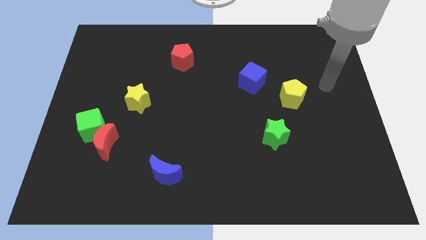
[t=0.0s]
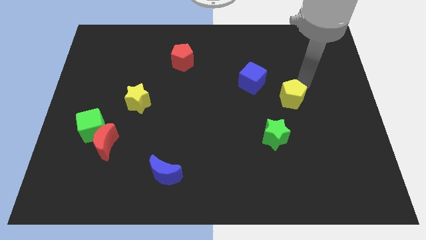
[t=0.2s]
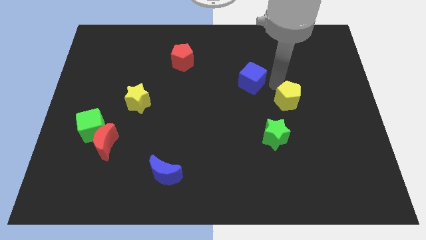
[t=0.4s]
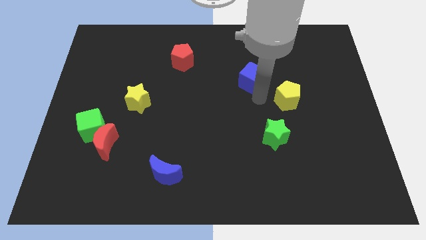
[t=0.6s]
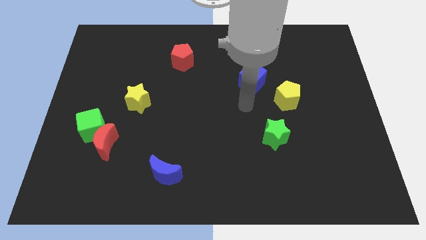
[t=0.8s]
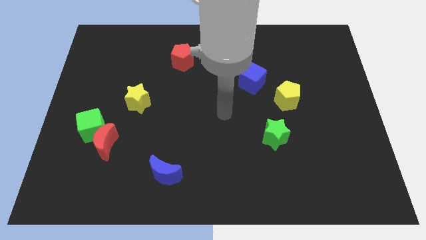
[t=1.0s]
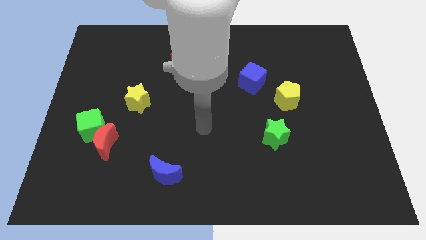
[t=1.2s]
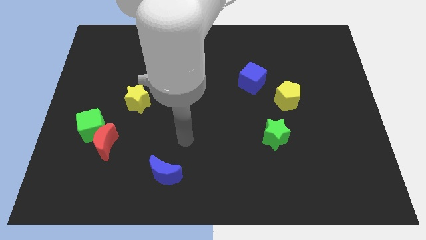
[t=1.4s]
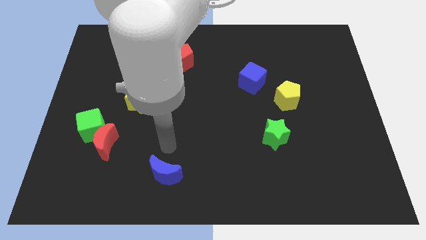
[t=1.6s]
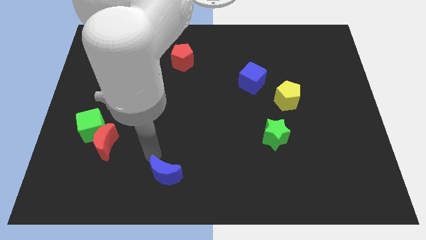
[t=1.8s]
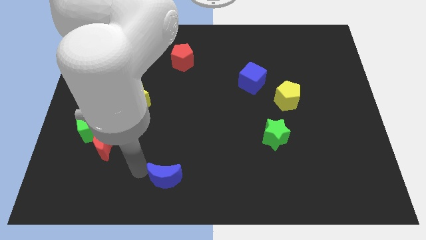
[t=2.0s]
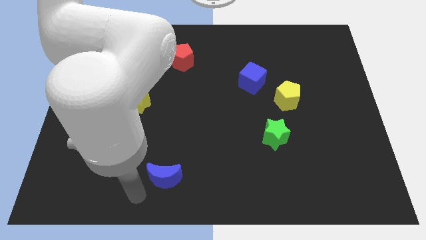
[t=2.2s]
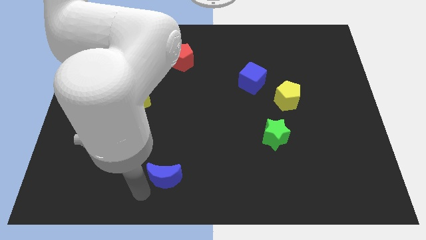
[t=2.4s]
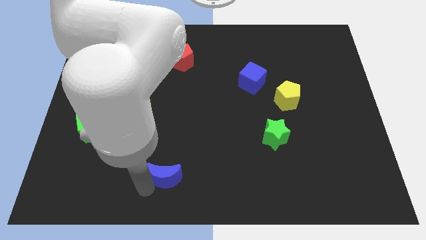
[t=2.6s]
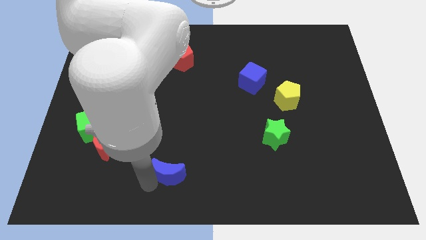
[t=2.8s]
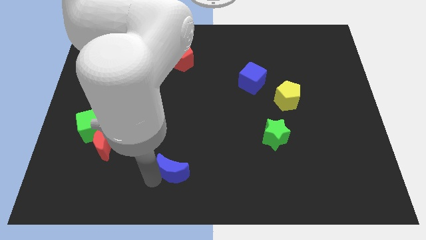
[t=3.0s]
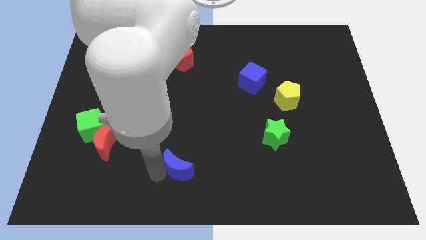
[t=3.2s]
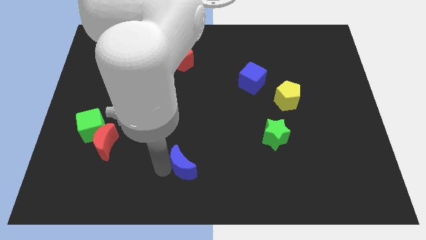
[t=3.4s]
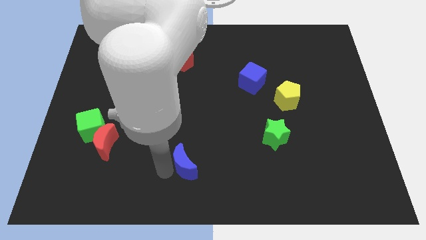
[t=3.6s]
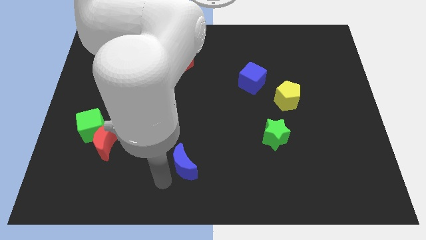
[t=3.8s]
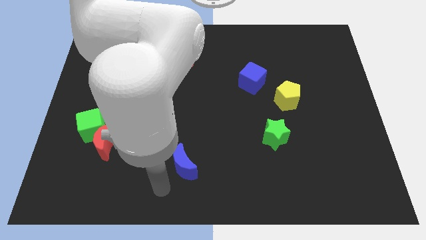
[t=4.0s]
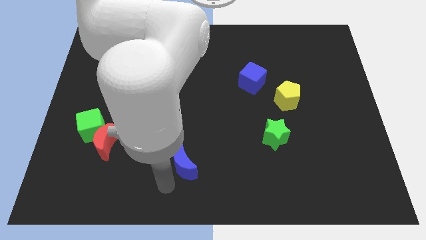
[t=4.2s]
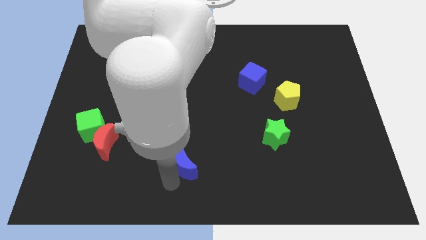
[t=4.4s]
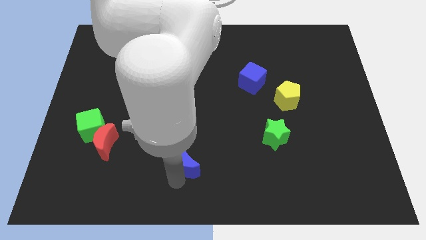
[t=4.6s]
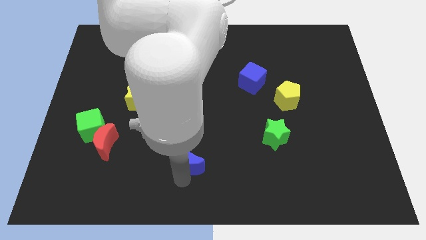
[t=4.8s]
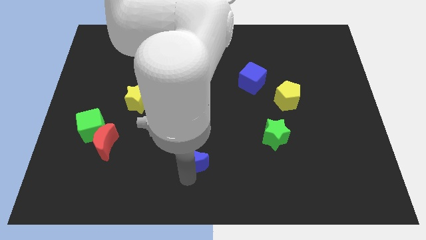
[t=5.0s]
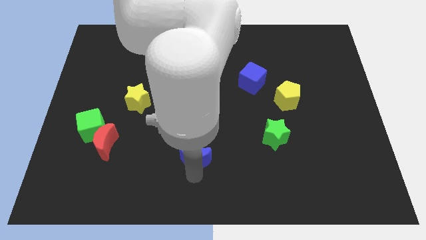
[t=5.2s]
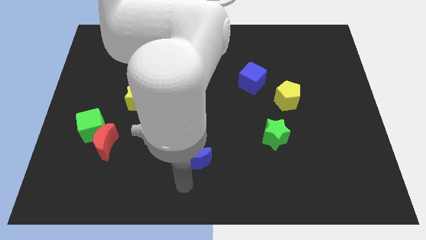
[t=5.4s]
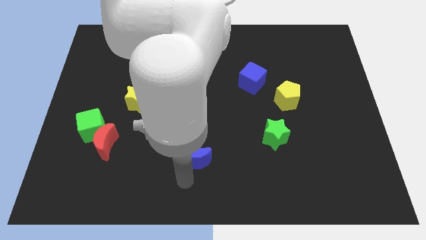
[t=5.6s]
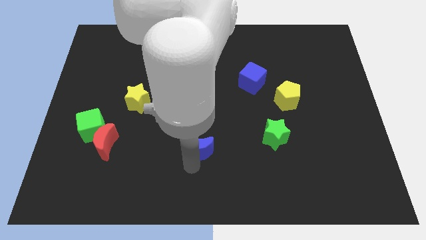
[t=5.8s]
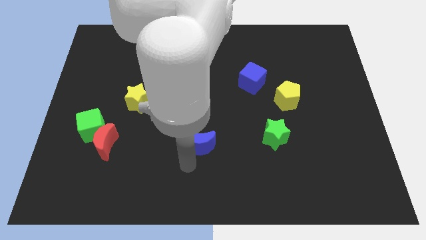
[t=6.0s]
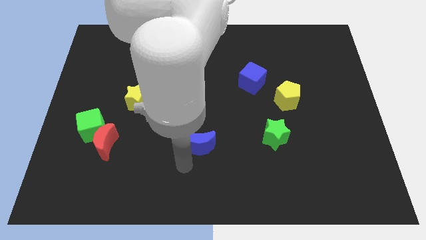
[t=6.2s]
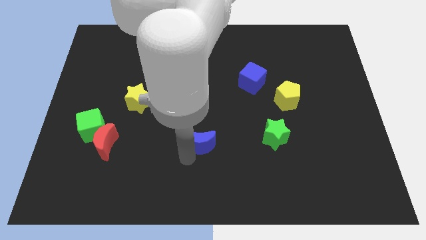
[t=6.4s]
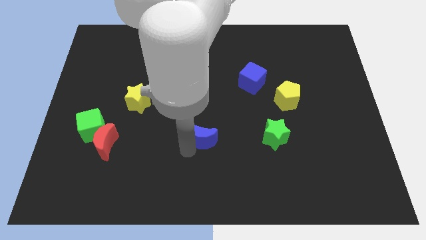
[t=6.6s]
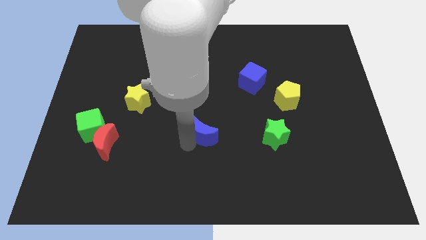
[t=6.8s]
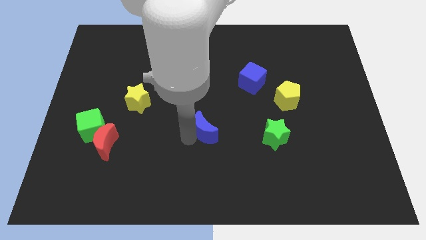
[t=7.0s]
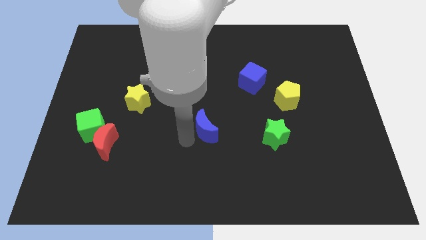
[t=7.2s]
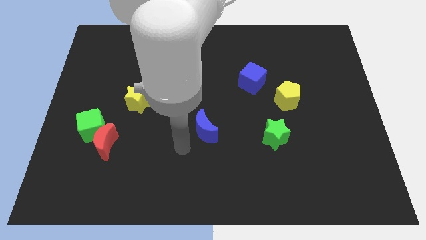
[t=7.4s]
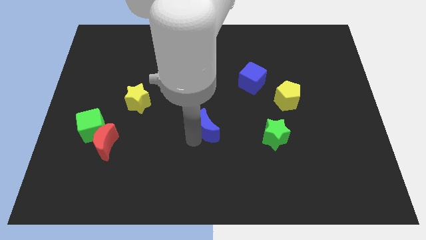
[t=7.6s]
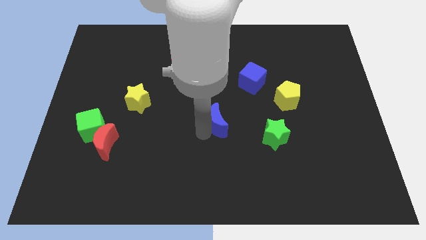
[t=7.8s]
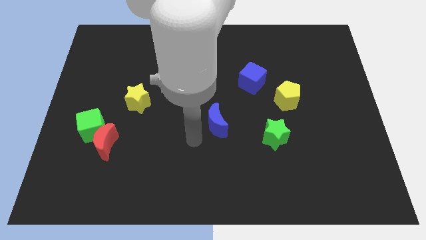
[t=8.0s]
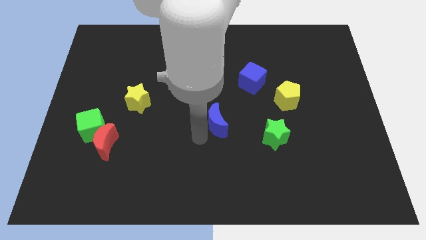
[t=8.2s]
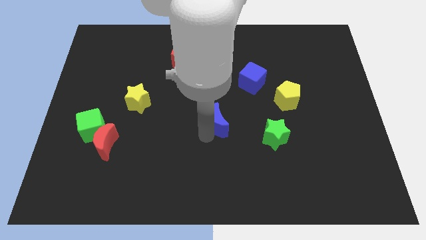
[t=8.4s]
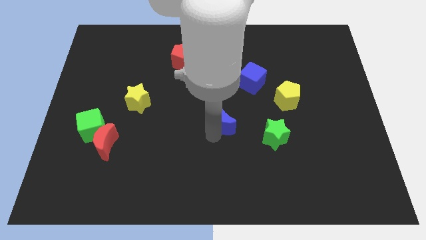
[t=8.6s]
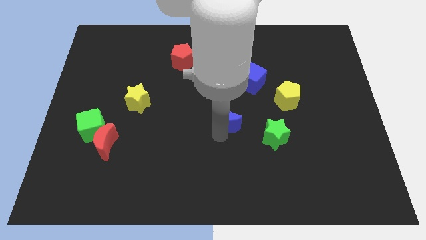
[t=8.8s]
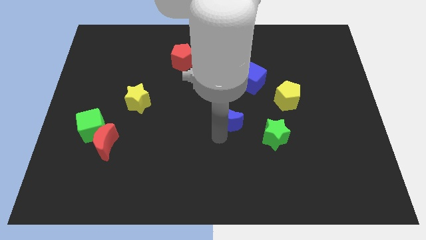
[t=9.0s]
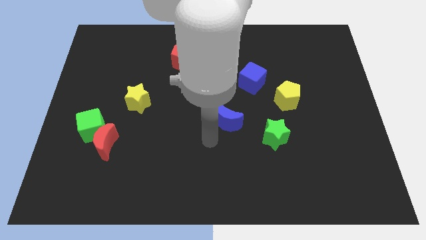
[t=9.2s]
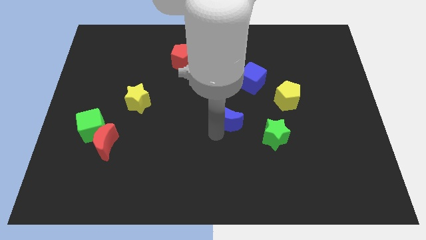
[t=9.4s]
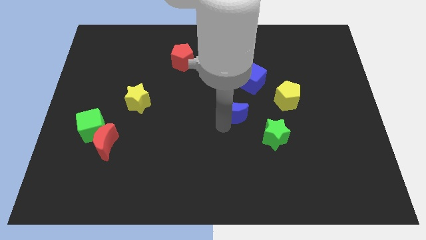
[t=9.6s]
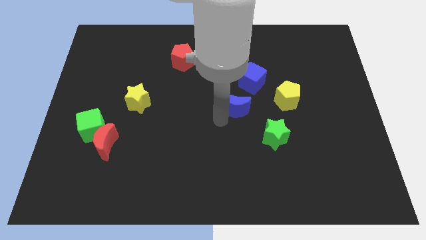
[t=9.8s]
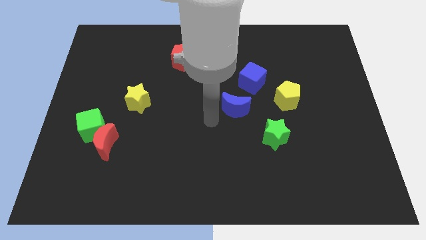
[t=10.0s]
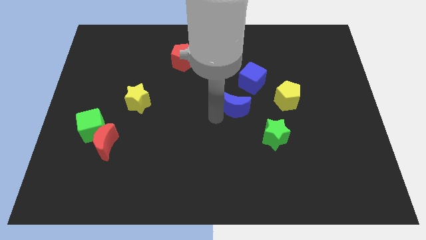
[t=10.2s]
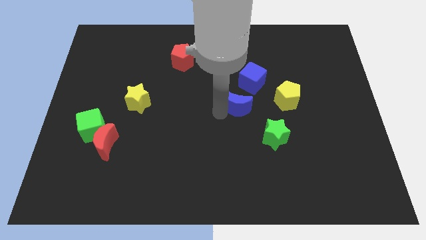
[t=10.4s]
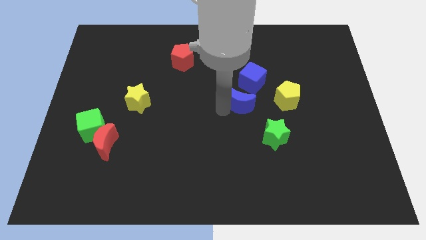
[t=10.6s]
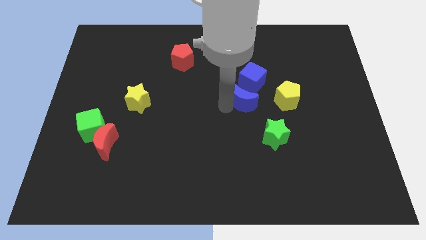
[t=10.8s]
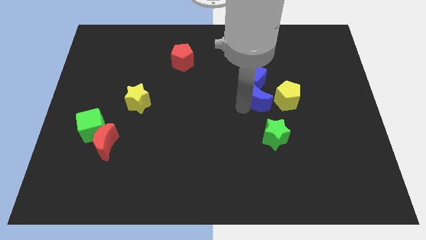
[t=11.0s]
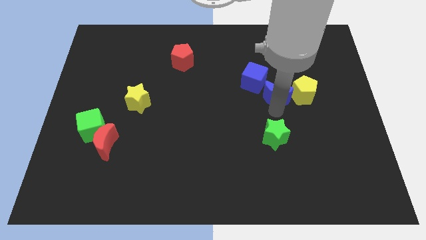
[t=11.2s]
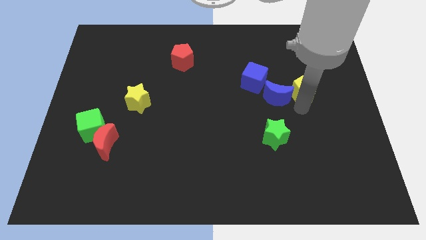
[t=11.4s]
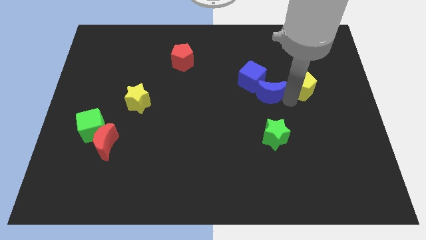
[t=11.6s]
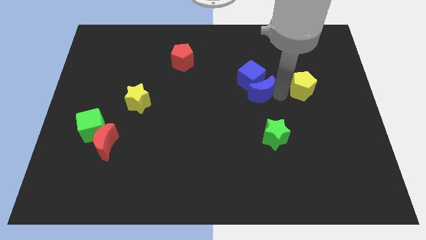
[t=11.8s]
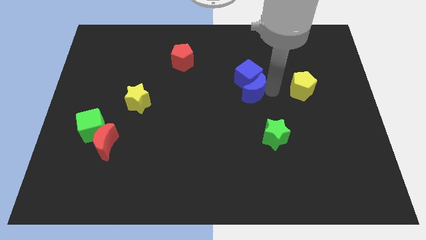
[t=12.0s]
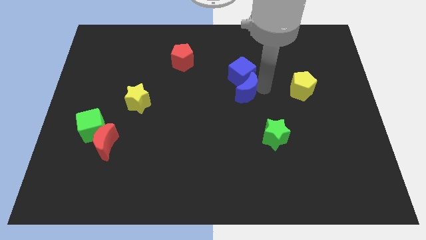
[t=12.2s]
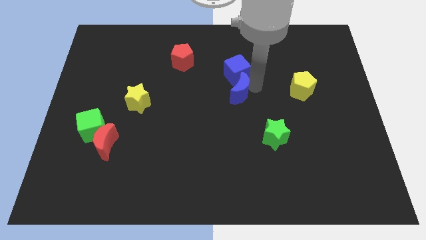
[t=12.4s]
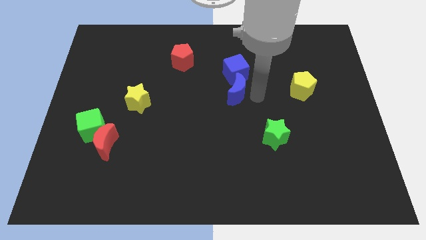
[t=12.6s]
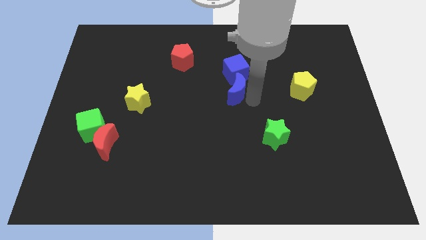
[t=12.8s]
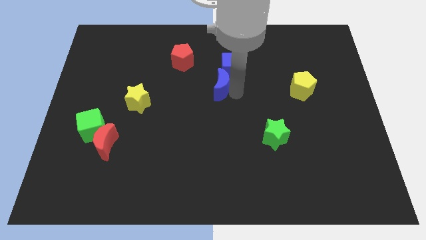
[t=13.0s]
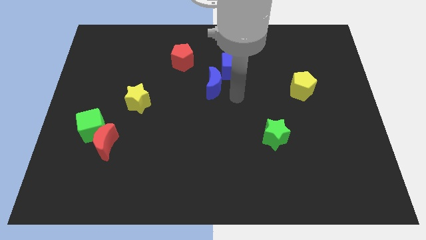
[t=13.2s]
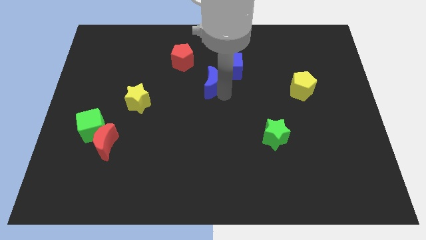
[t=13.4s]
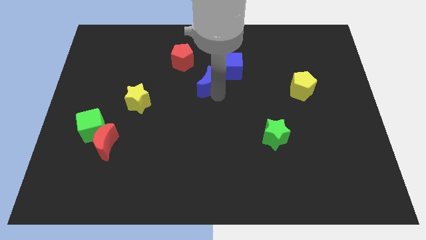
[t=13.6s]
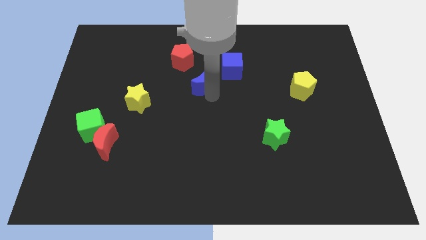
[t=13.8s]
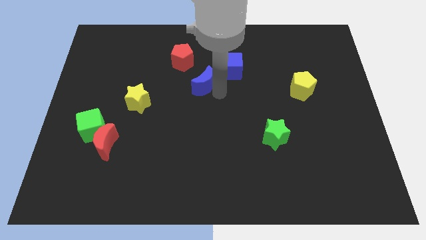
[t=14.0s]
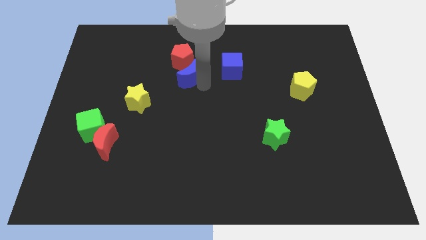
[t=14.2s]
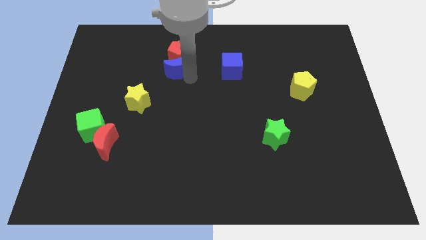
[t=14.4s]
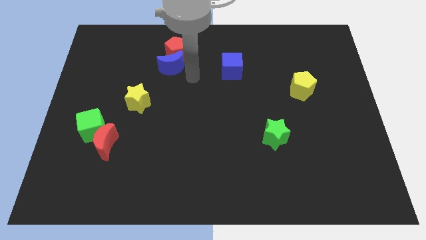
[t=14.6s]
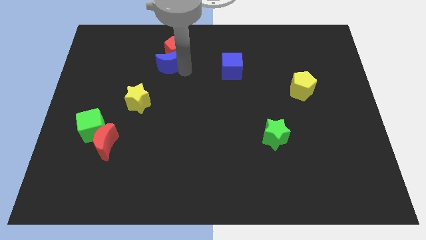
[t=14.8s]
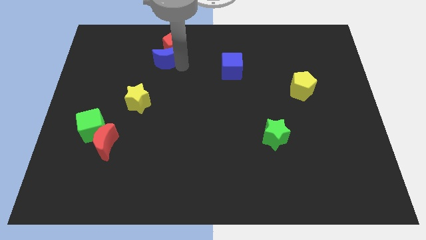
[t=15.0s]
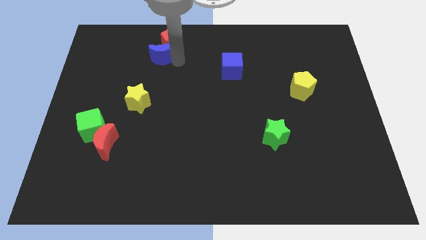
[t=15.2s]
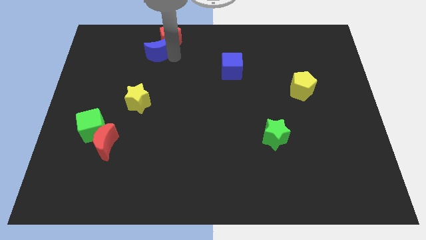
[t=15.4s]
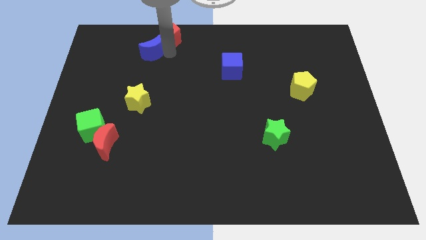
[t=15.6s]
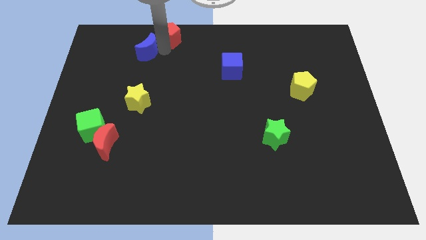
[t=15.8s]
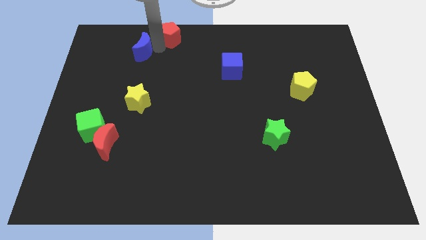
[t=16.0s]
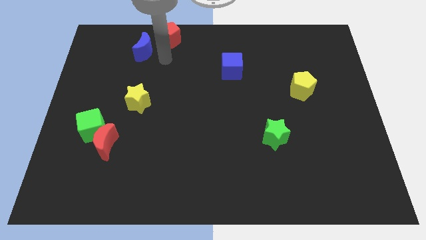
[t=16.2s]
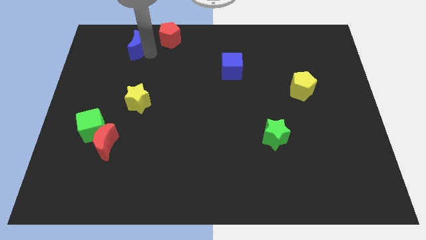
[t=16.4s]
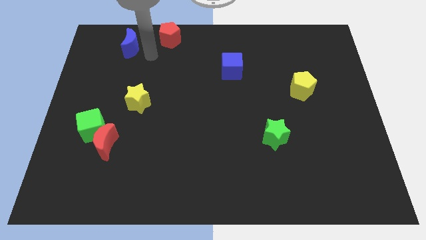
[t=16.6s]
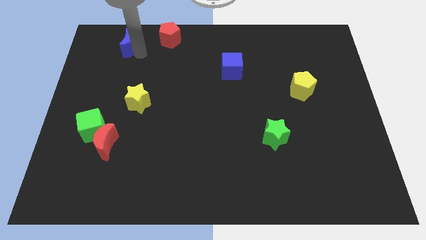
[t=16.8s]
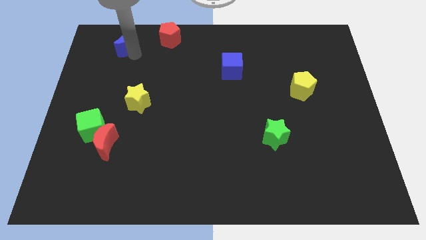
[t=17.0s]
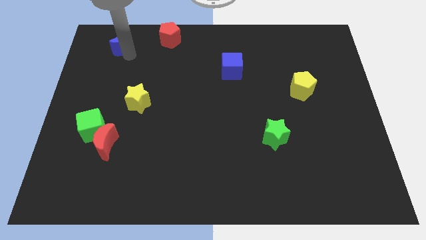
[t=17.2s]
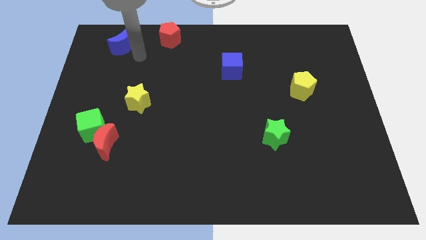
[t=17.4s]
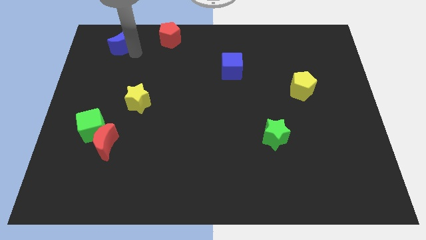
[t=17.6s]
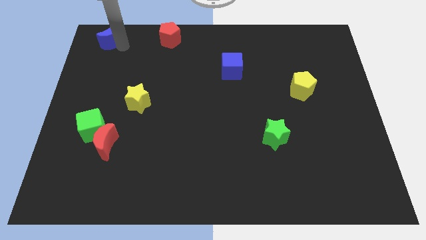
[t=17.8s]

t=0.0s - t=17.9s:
slide the blue moon to the upper left corner
